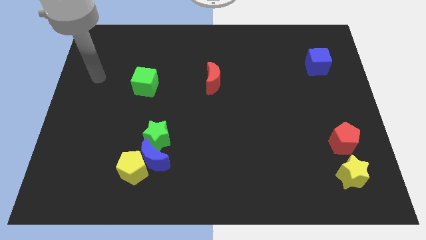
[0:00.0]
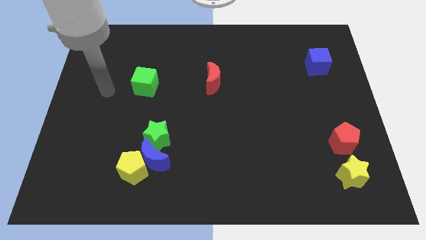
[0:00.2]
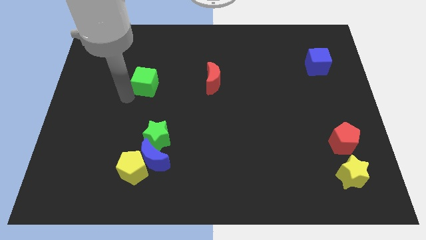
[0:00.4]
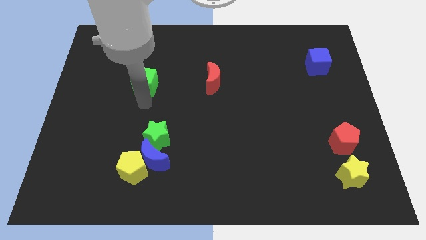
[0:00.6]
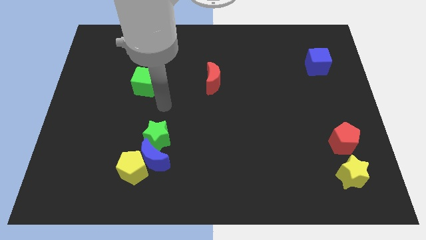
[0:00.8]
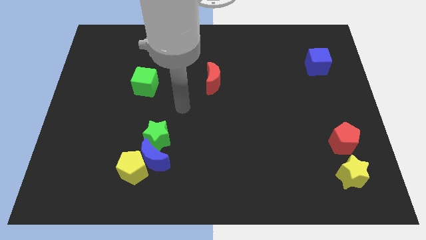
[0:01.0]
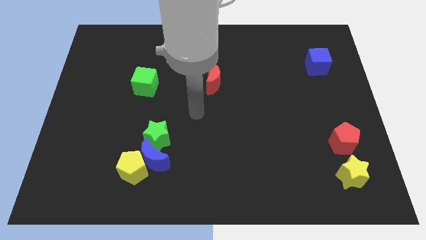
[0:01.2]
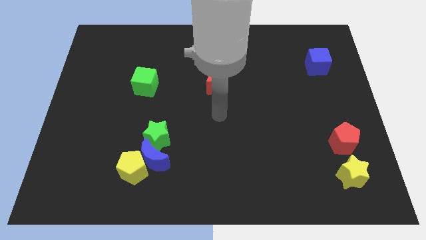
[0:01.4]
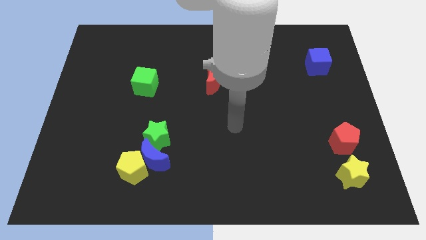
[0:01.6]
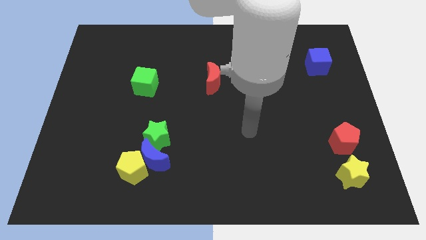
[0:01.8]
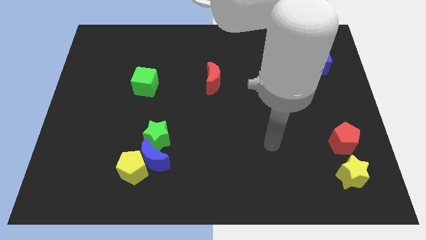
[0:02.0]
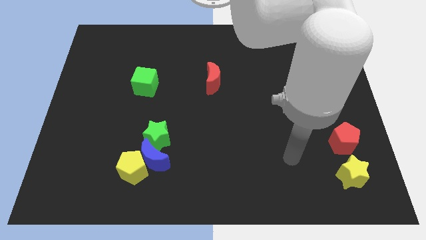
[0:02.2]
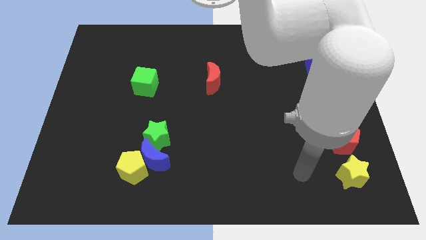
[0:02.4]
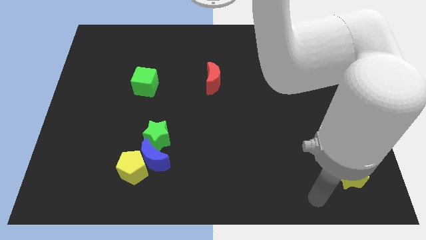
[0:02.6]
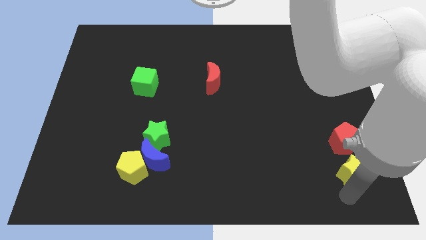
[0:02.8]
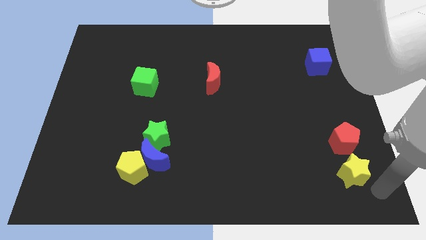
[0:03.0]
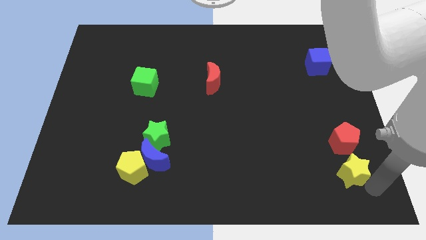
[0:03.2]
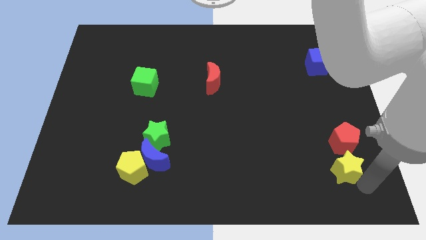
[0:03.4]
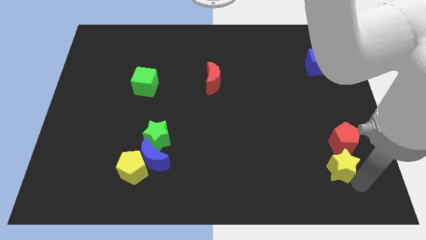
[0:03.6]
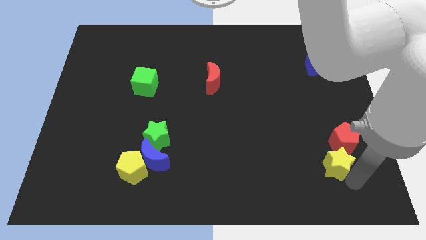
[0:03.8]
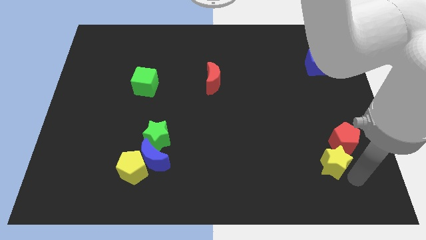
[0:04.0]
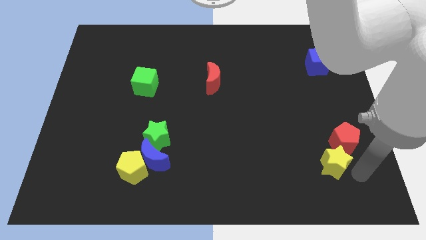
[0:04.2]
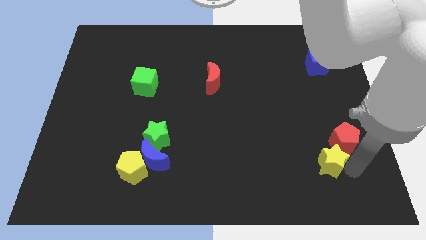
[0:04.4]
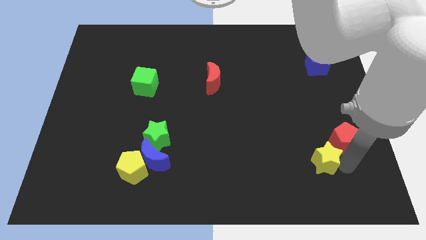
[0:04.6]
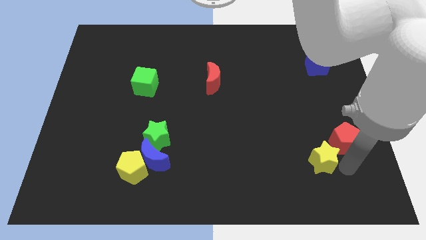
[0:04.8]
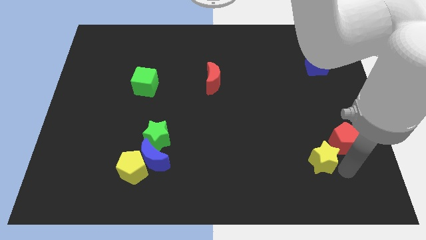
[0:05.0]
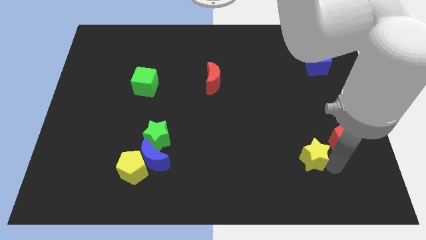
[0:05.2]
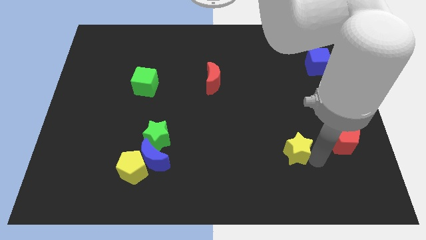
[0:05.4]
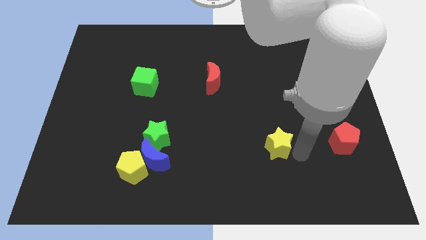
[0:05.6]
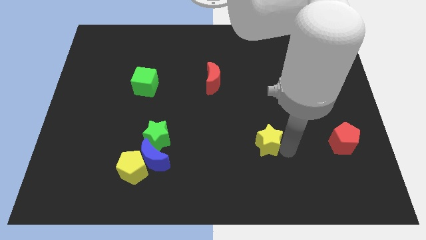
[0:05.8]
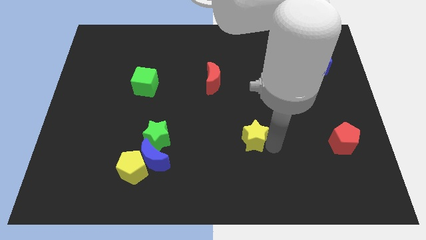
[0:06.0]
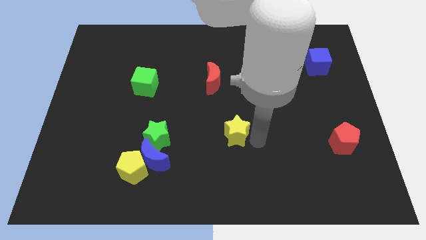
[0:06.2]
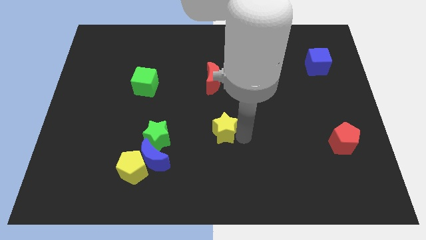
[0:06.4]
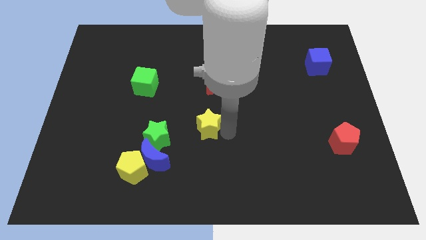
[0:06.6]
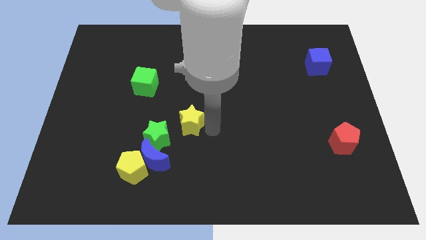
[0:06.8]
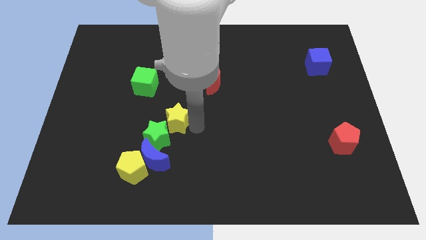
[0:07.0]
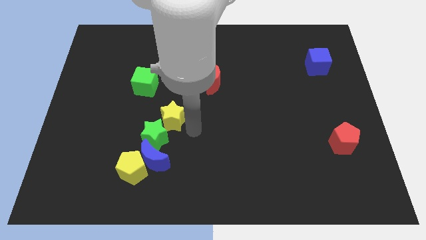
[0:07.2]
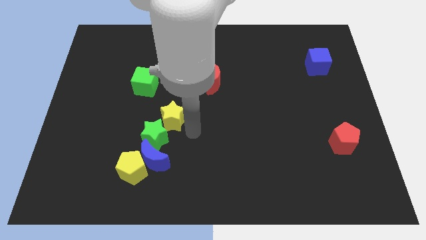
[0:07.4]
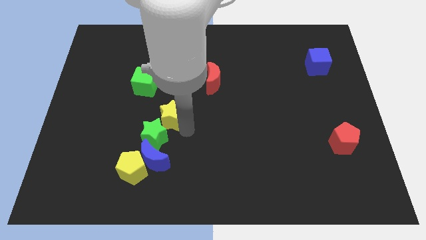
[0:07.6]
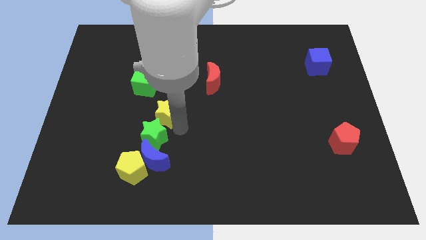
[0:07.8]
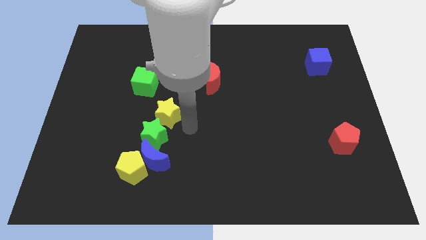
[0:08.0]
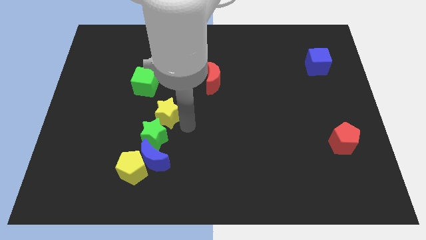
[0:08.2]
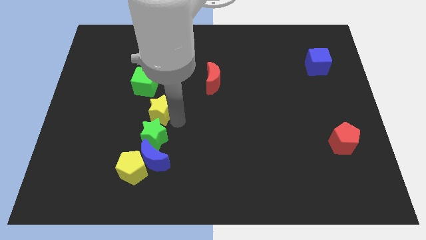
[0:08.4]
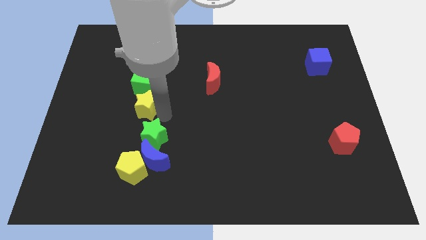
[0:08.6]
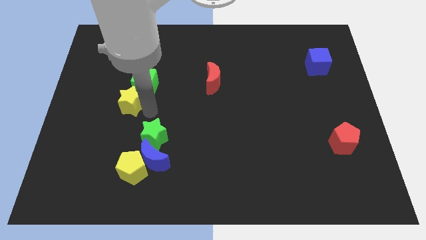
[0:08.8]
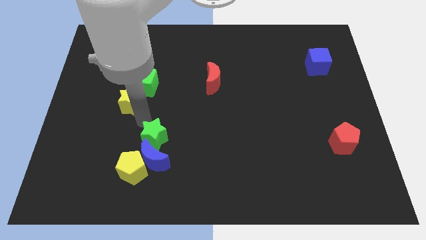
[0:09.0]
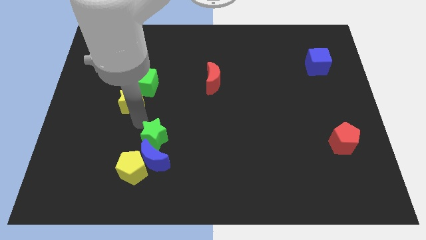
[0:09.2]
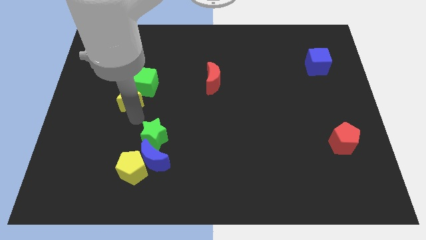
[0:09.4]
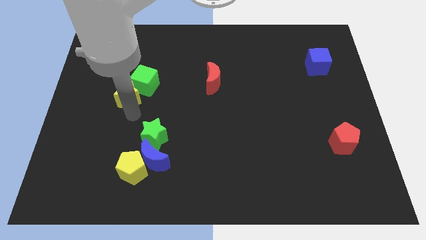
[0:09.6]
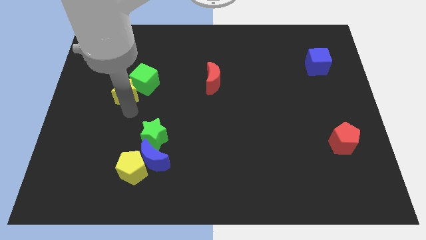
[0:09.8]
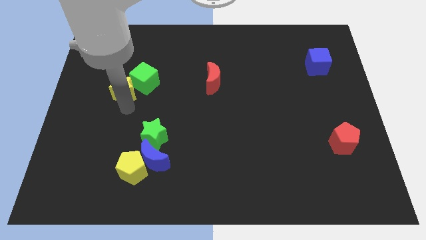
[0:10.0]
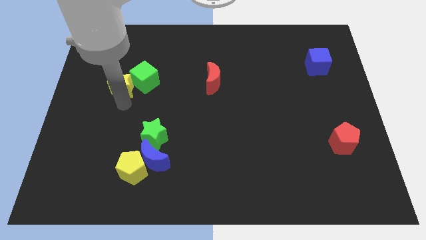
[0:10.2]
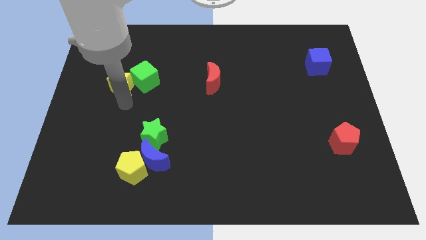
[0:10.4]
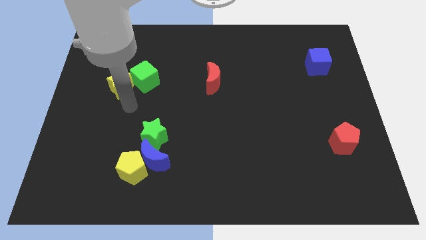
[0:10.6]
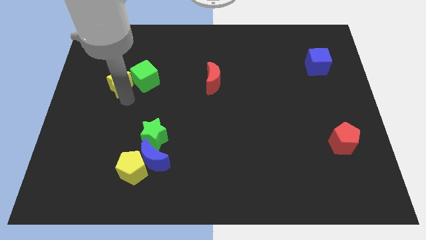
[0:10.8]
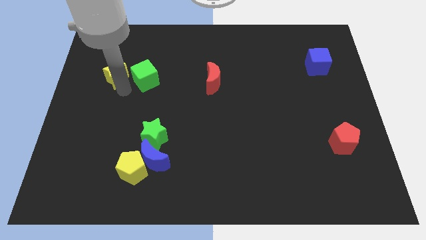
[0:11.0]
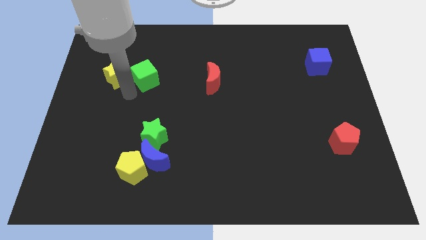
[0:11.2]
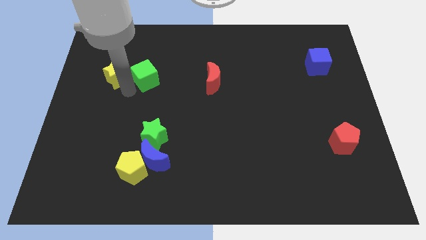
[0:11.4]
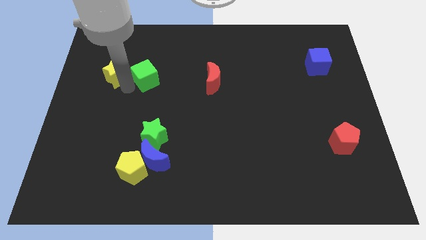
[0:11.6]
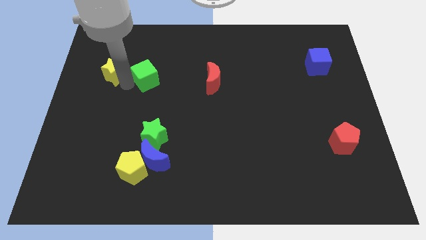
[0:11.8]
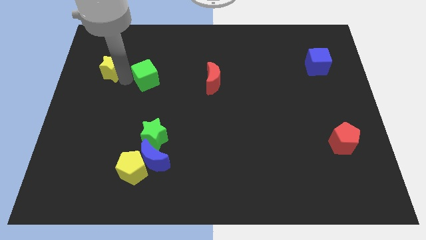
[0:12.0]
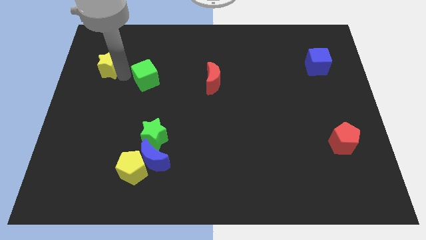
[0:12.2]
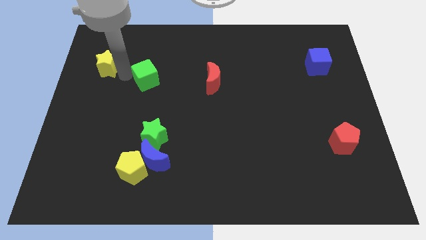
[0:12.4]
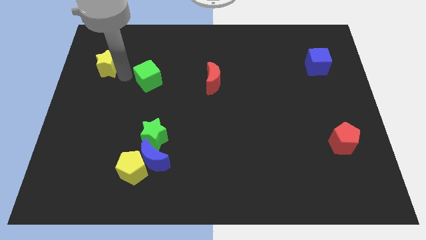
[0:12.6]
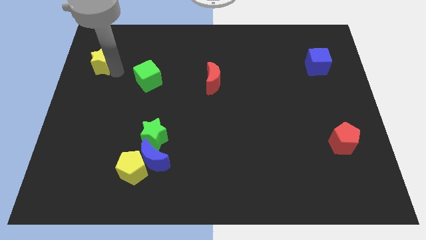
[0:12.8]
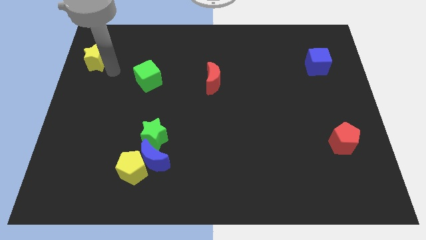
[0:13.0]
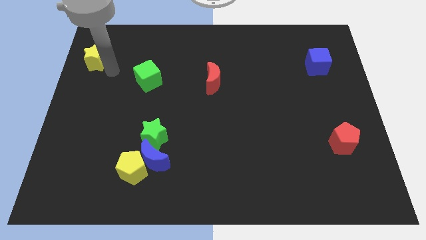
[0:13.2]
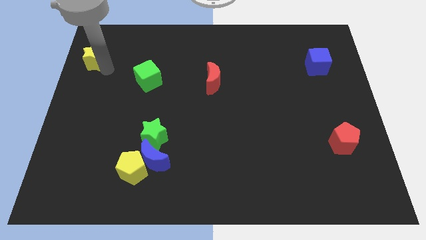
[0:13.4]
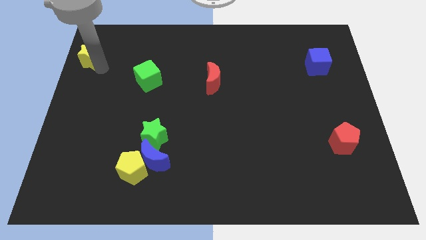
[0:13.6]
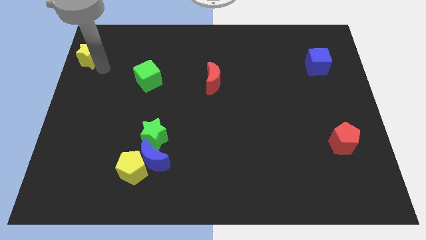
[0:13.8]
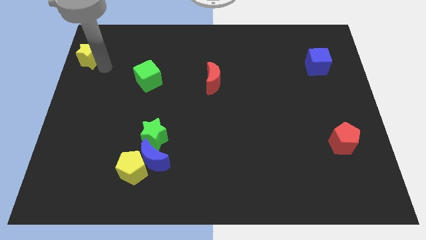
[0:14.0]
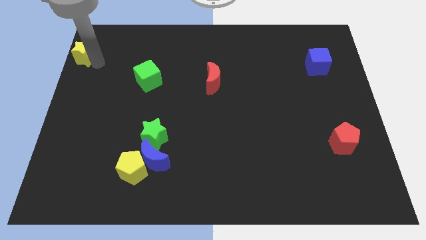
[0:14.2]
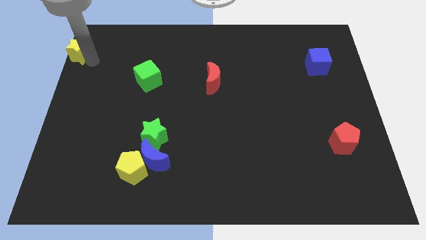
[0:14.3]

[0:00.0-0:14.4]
slide the yellow star to the upper left corner
